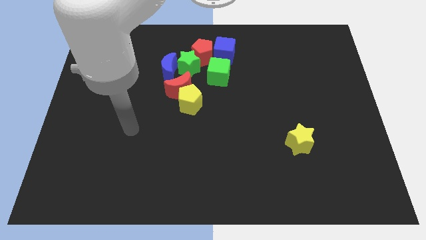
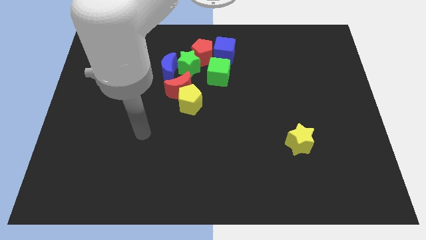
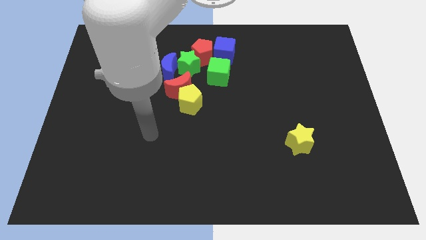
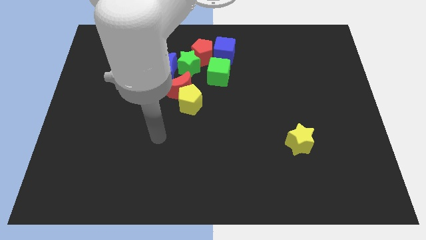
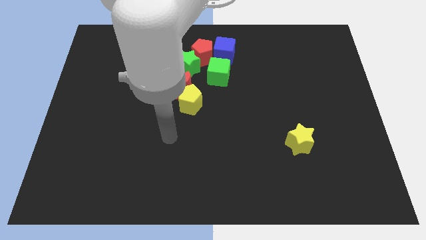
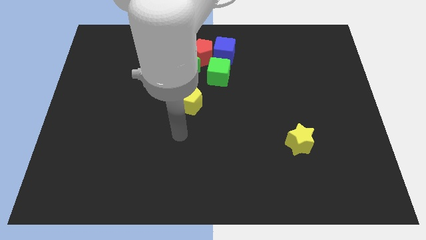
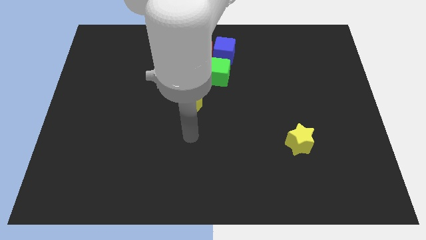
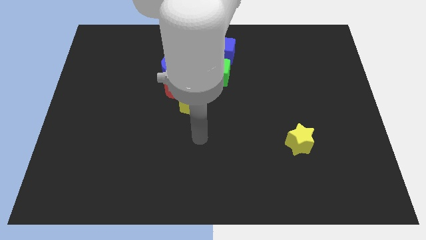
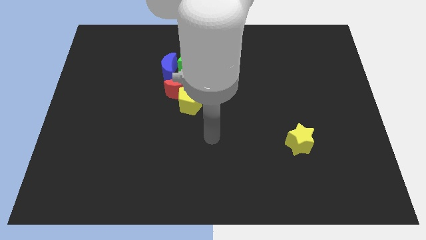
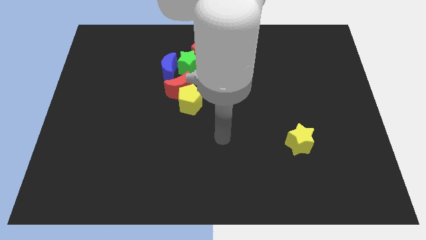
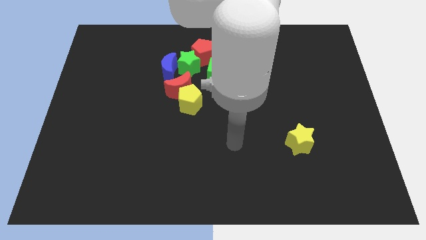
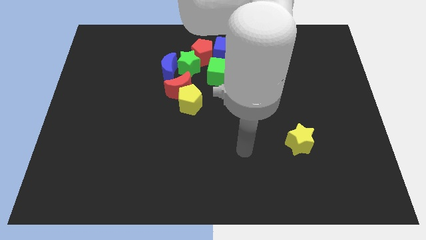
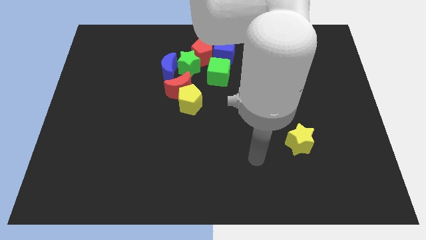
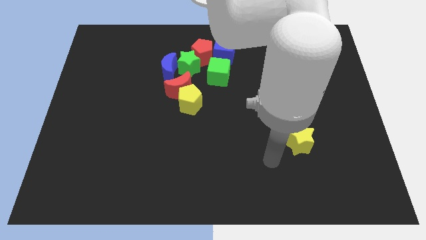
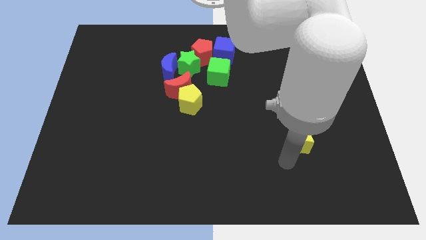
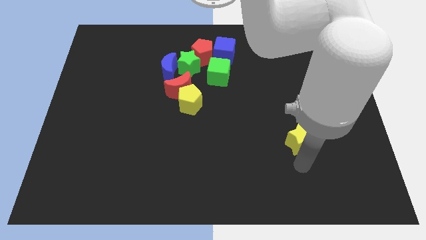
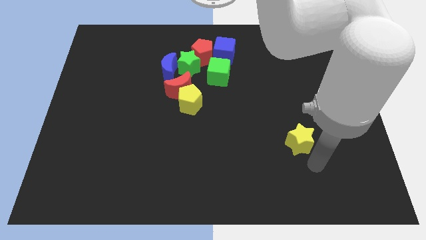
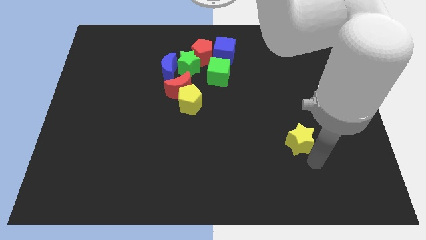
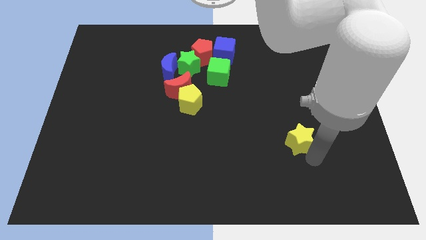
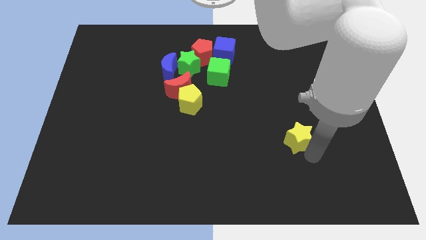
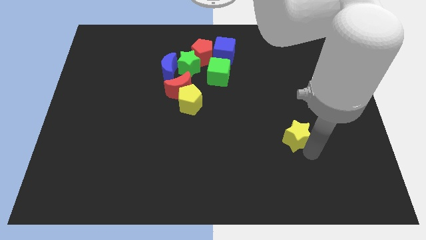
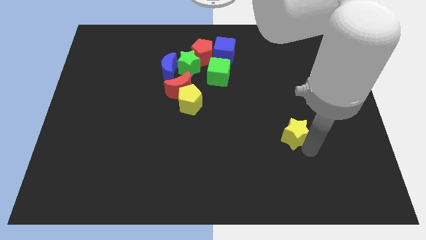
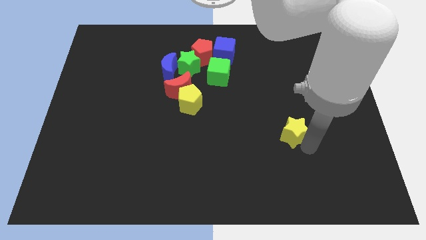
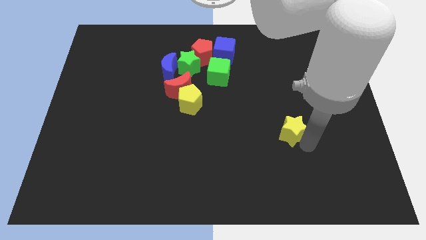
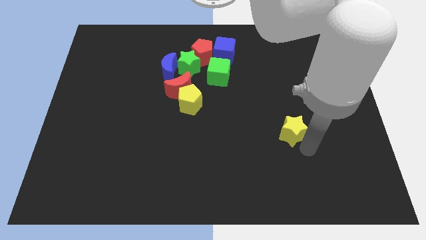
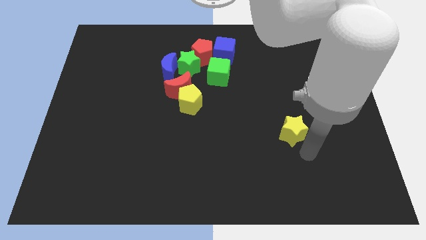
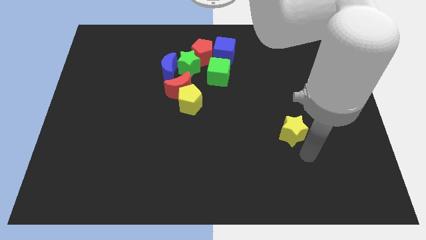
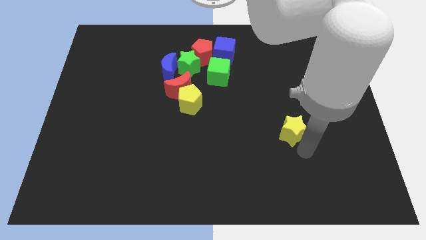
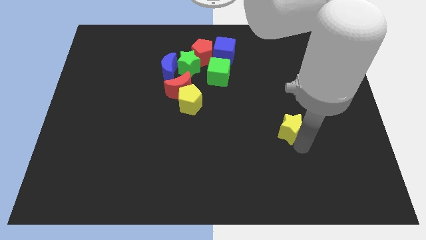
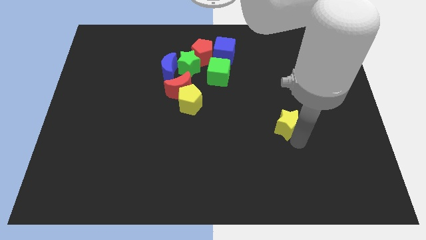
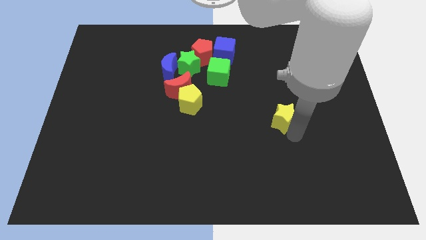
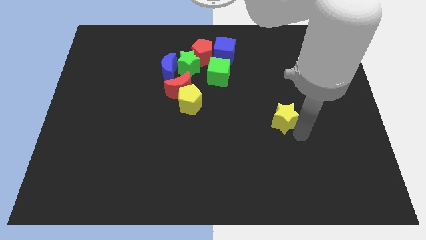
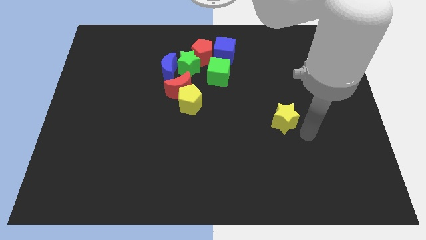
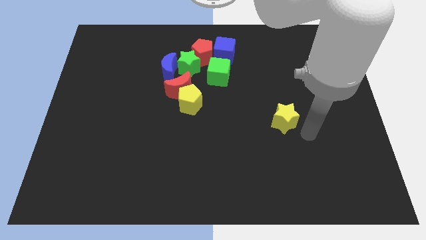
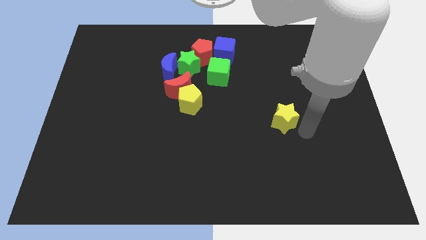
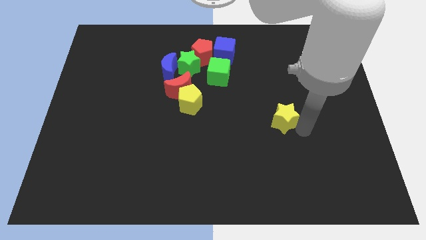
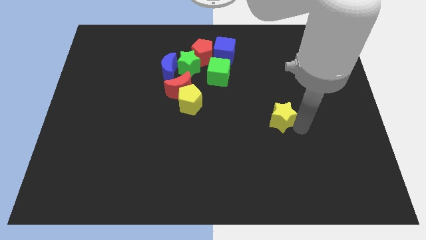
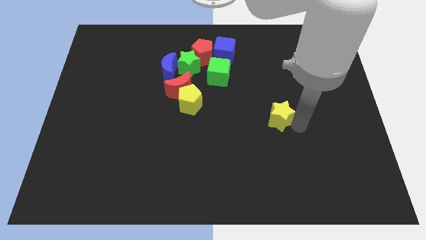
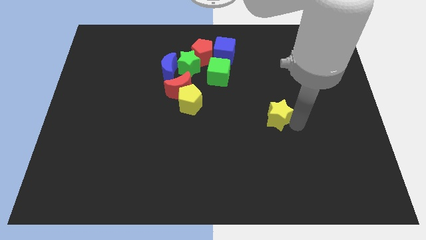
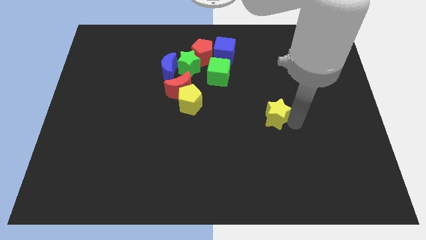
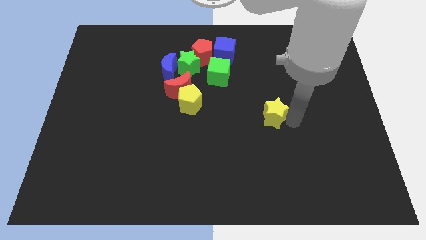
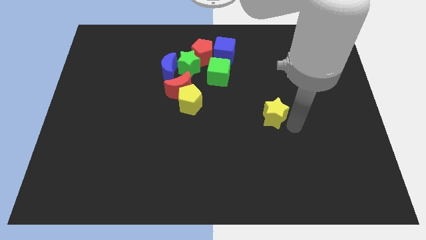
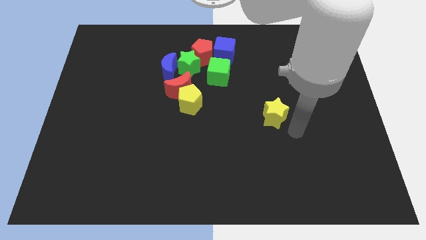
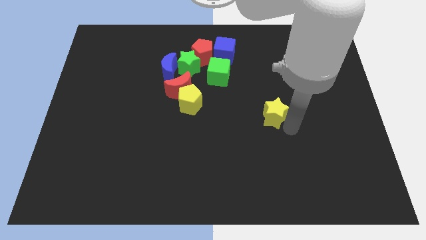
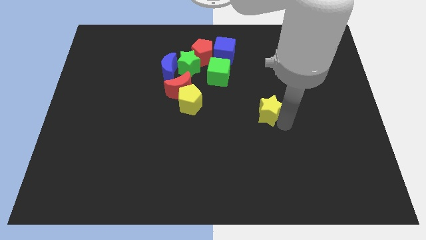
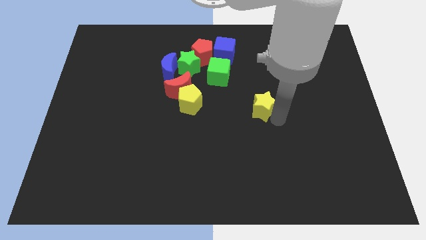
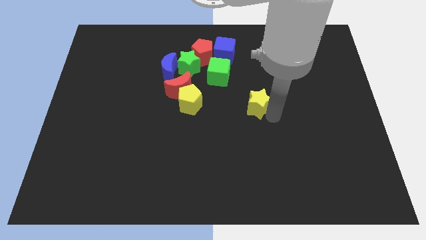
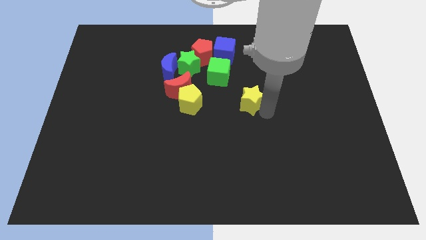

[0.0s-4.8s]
push the yellow star to the bottom right of the green cube

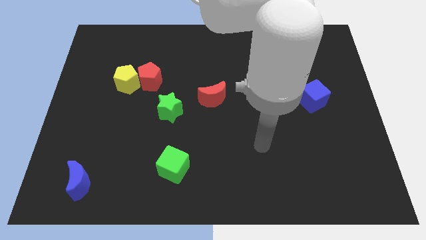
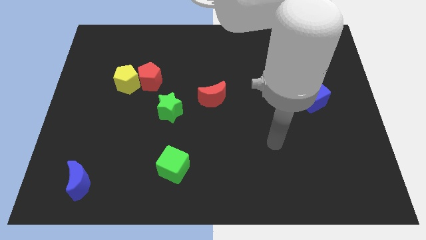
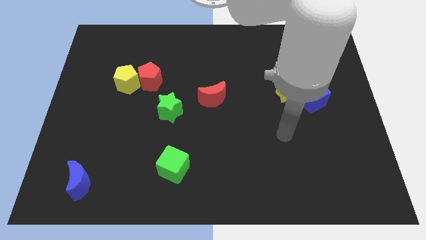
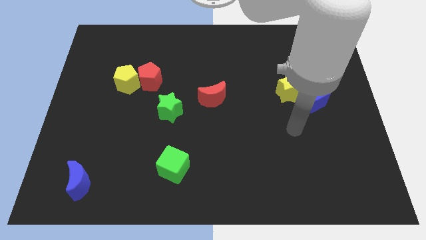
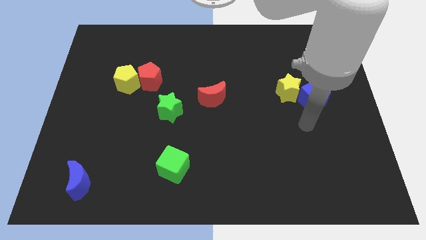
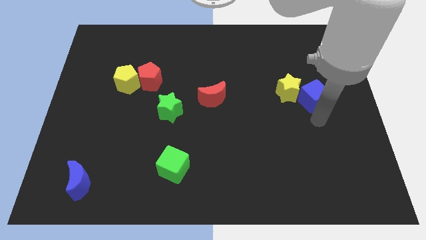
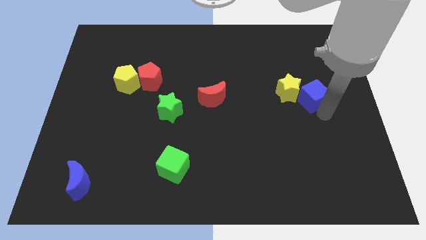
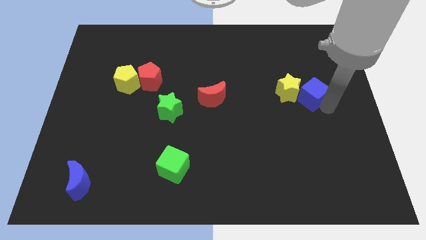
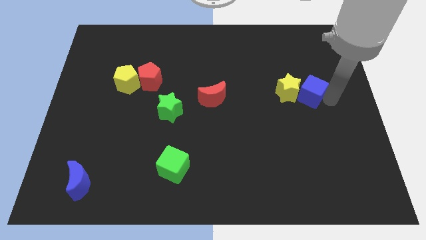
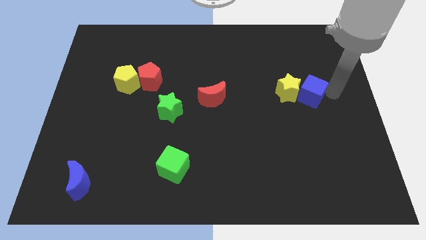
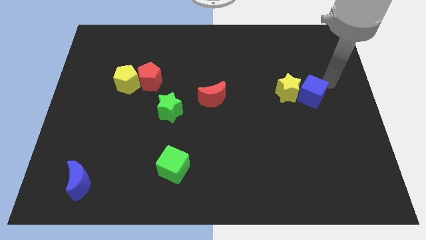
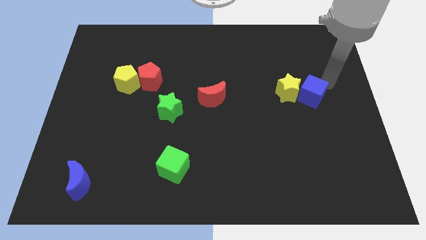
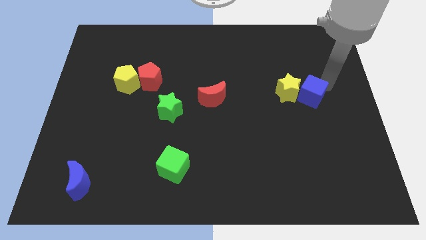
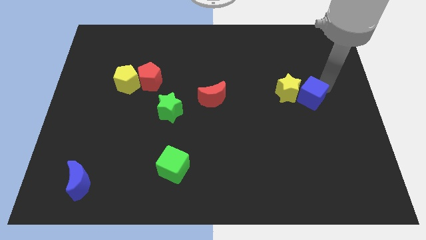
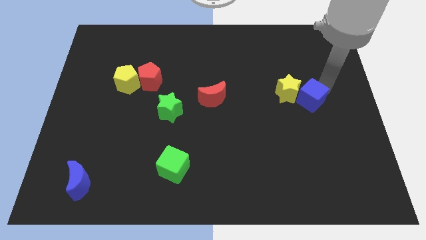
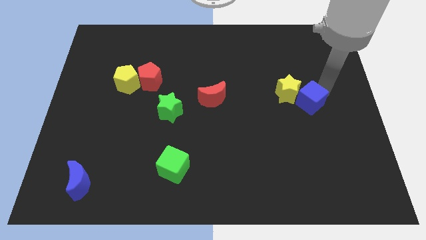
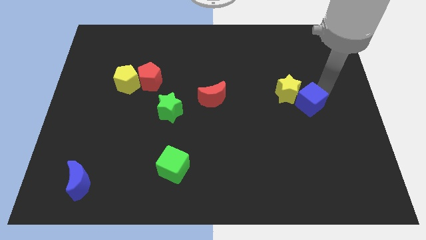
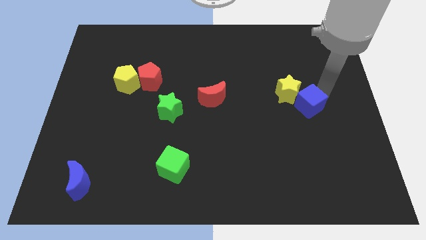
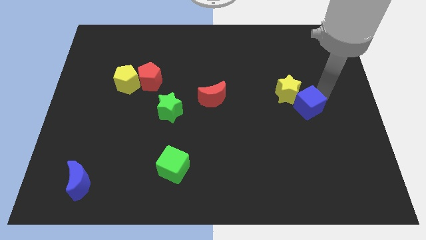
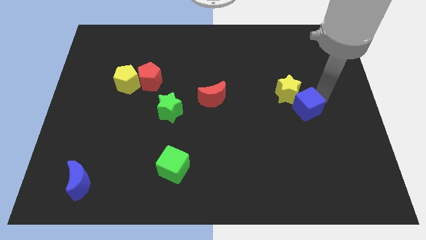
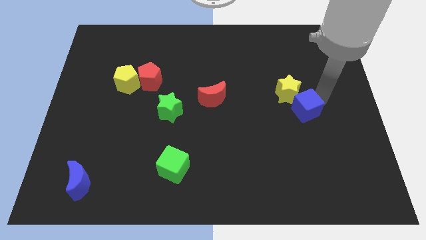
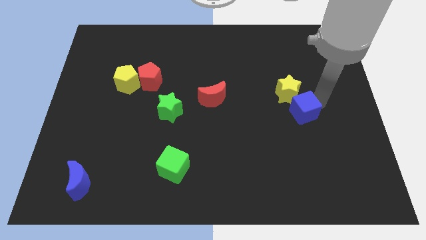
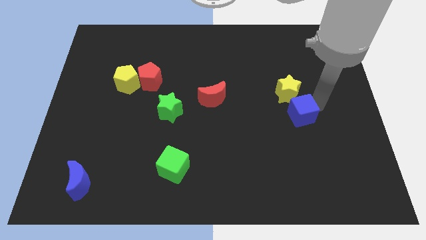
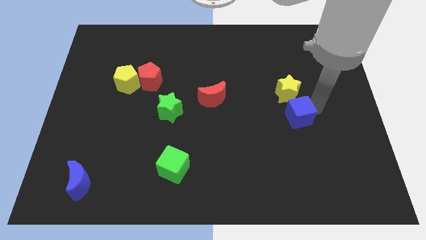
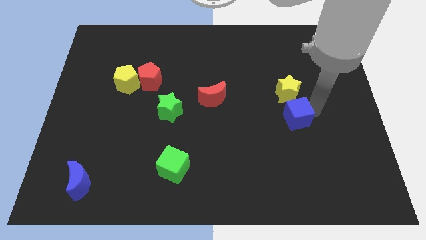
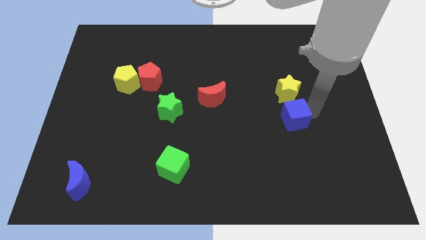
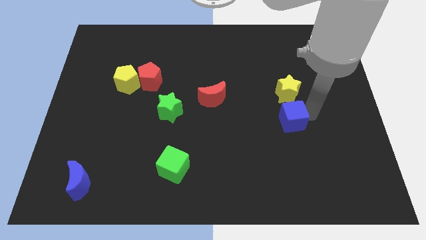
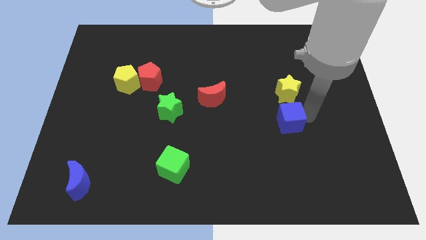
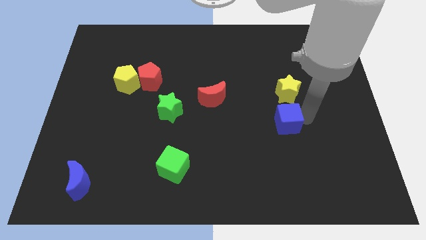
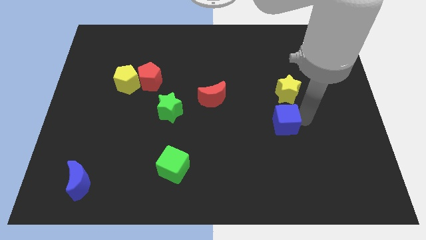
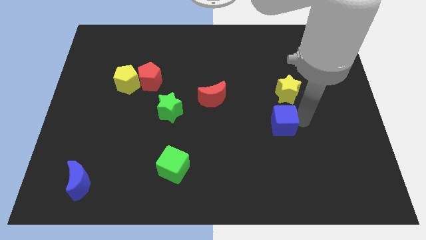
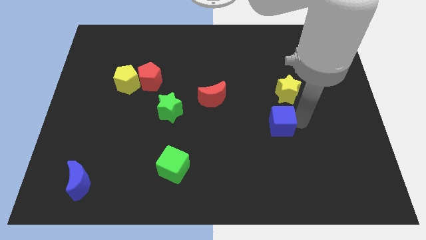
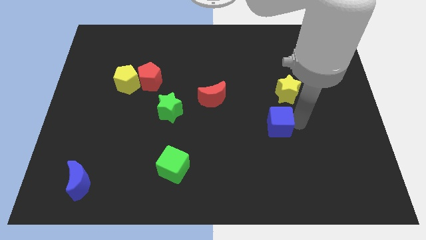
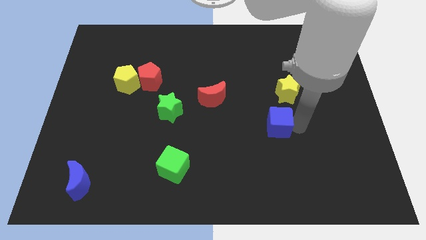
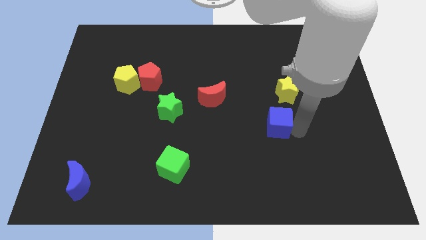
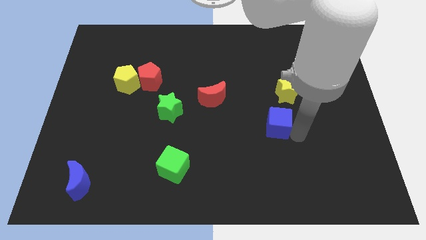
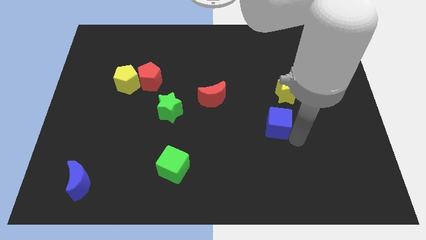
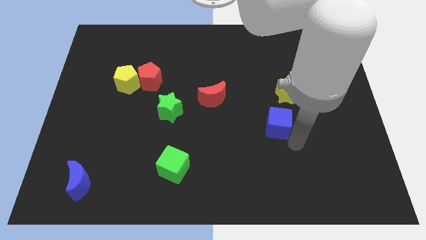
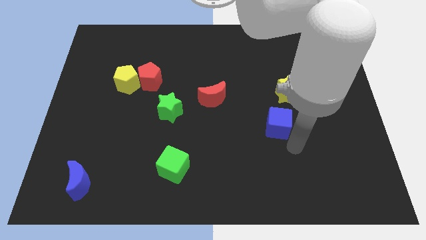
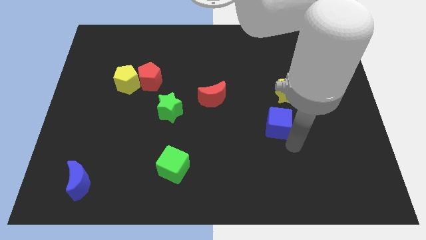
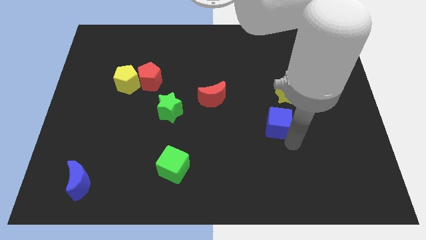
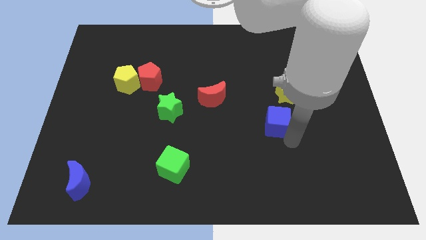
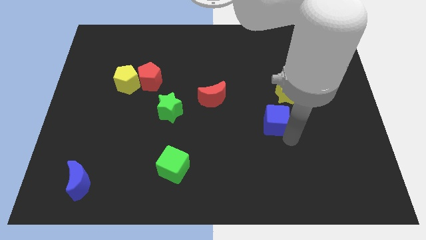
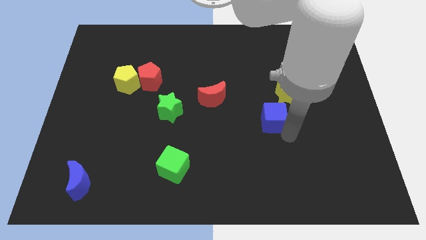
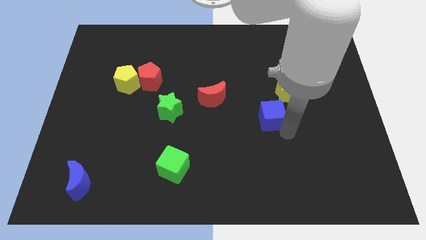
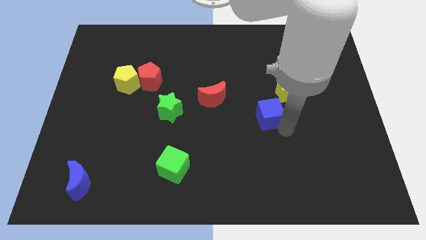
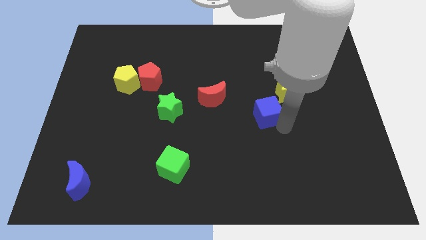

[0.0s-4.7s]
move the blue cube to the right of the red moon
